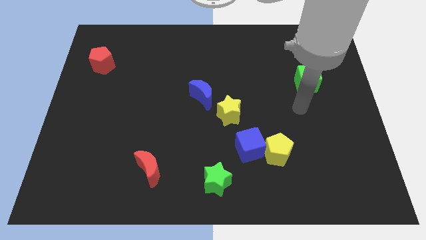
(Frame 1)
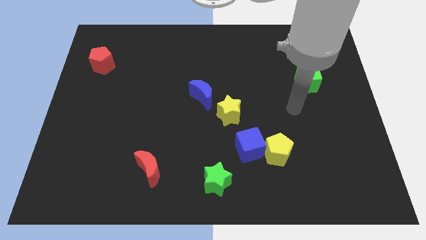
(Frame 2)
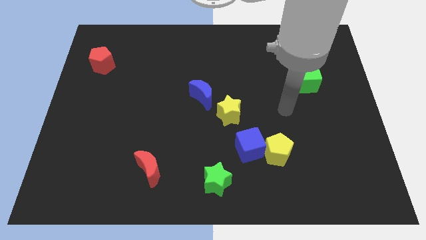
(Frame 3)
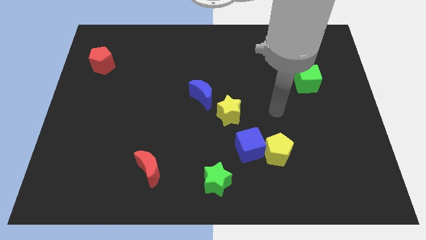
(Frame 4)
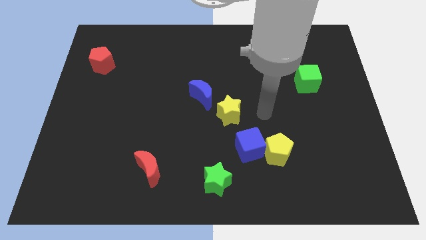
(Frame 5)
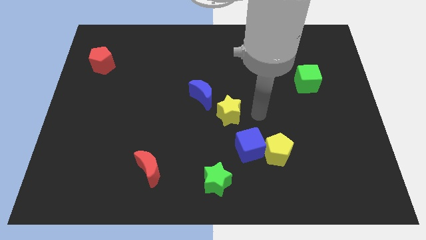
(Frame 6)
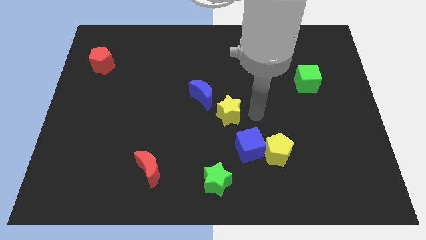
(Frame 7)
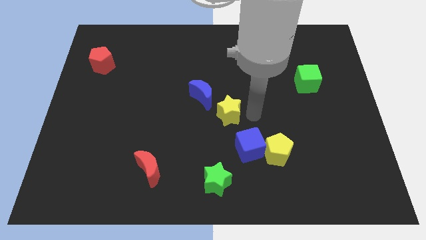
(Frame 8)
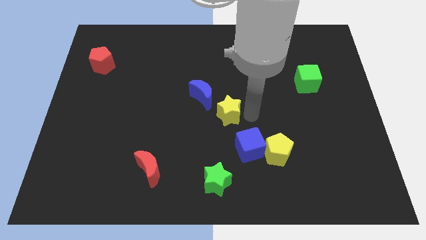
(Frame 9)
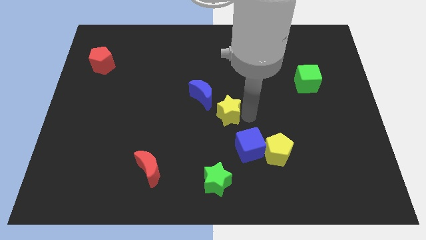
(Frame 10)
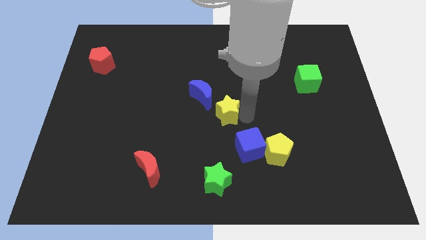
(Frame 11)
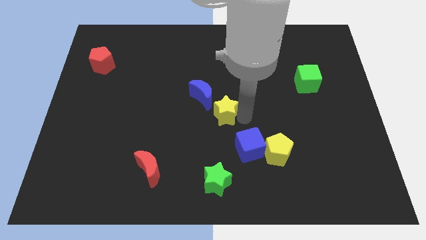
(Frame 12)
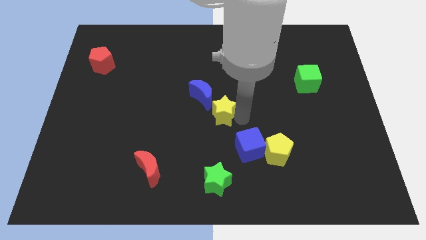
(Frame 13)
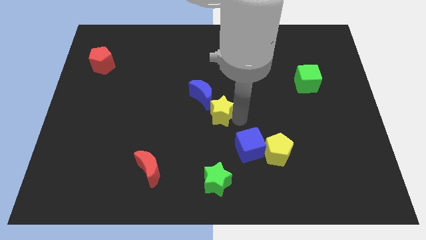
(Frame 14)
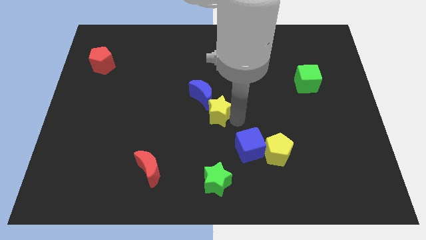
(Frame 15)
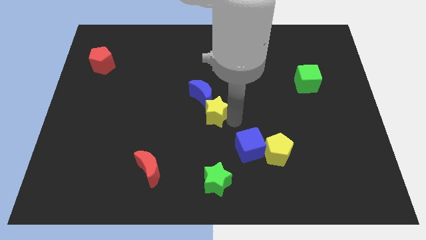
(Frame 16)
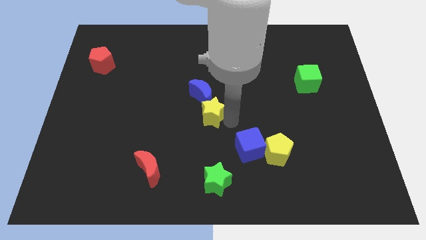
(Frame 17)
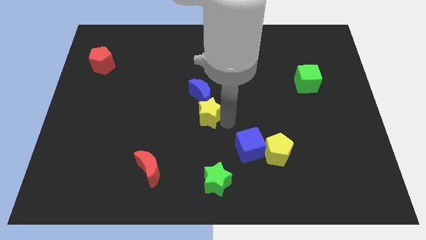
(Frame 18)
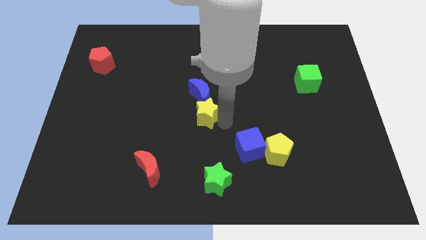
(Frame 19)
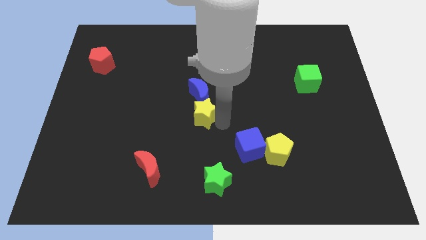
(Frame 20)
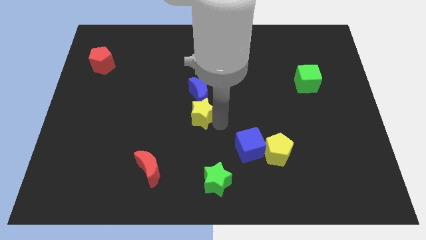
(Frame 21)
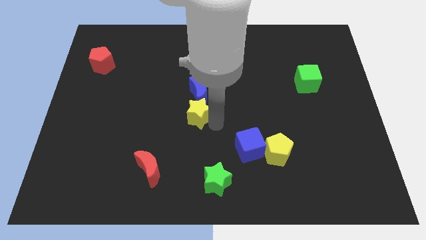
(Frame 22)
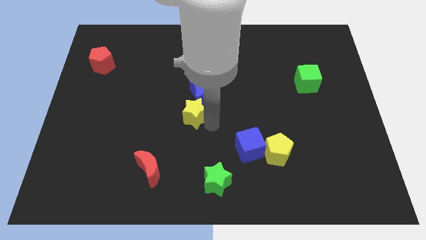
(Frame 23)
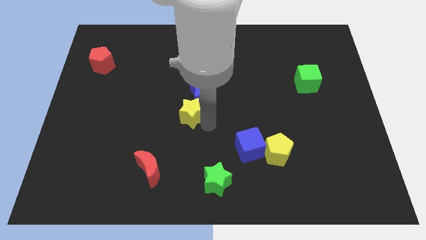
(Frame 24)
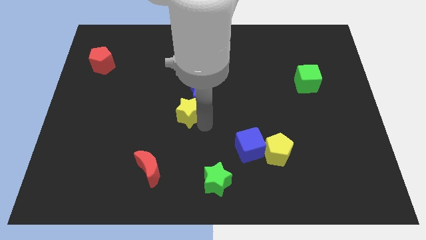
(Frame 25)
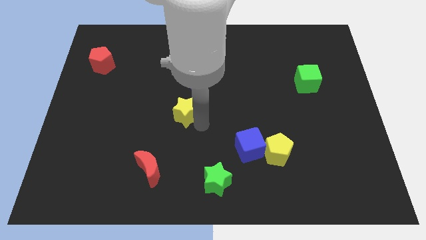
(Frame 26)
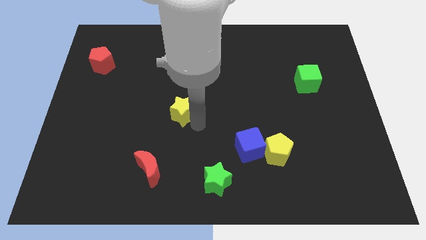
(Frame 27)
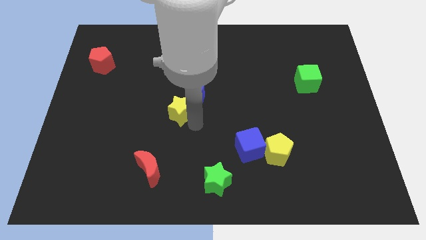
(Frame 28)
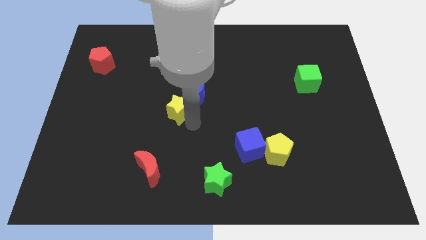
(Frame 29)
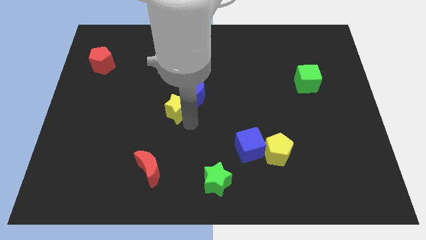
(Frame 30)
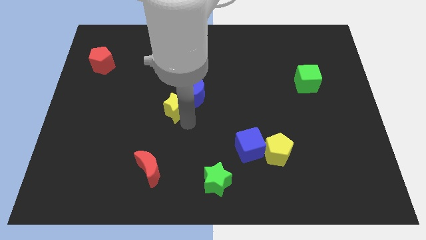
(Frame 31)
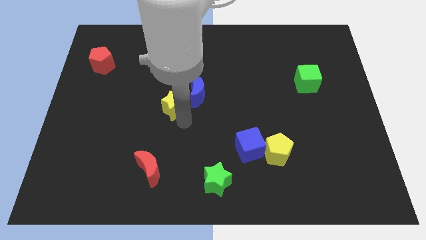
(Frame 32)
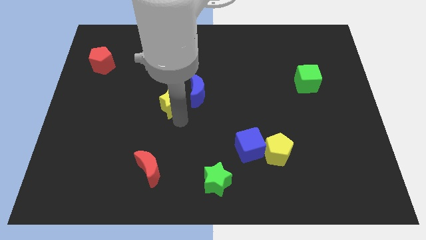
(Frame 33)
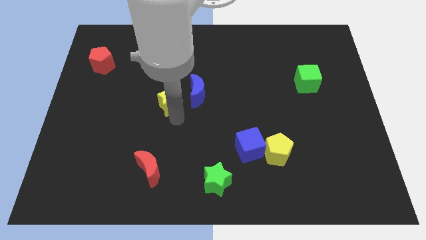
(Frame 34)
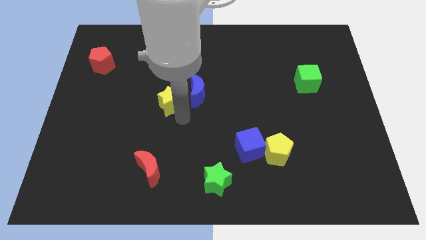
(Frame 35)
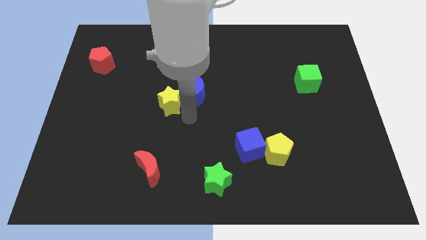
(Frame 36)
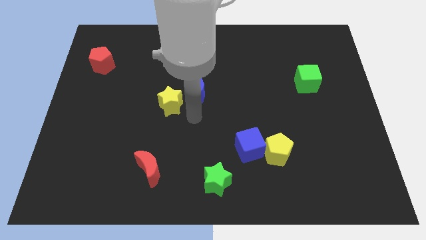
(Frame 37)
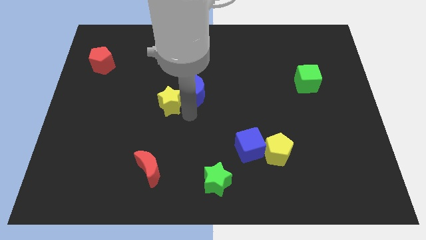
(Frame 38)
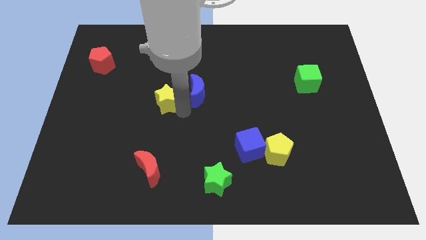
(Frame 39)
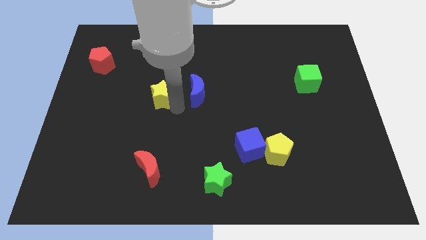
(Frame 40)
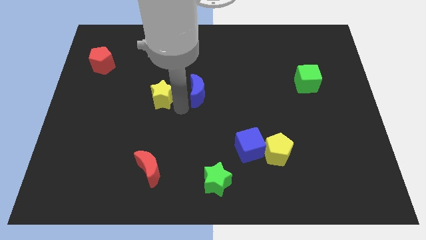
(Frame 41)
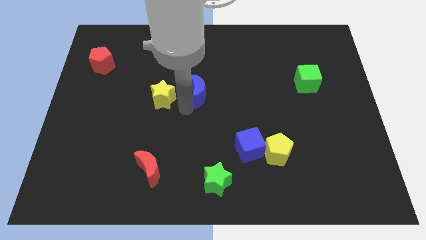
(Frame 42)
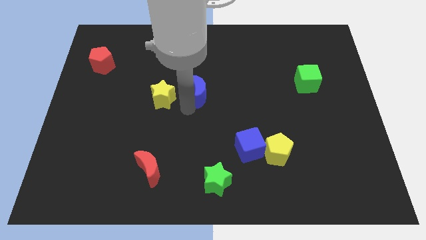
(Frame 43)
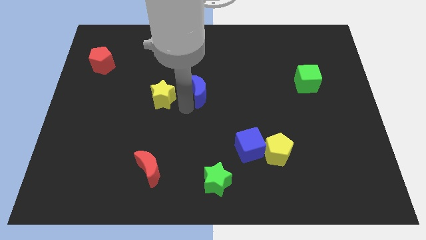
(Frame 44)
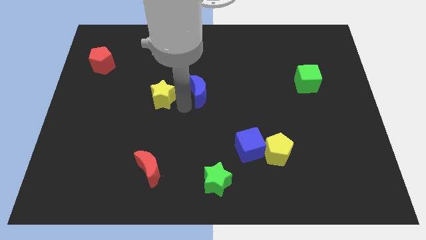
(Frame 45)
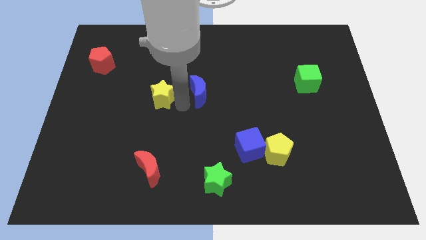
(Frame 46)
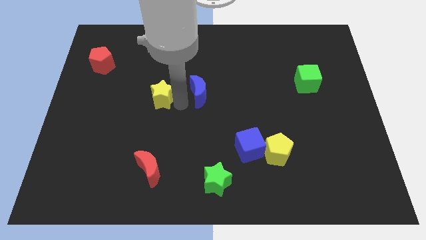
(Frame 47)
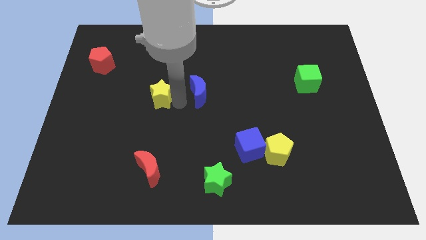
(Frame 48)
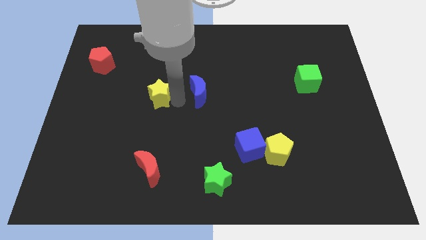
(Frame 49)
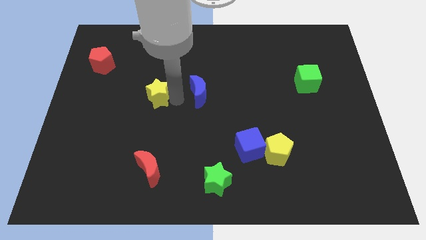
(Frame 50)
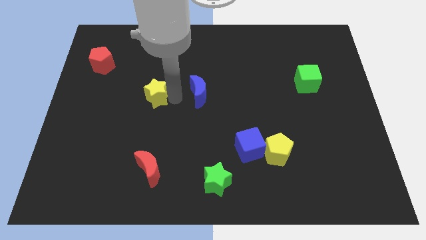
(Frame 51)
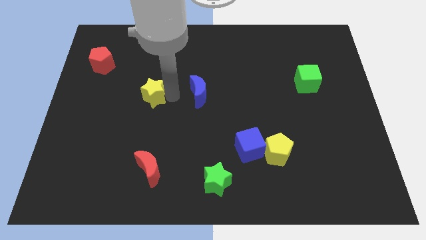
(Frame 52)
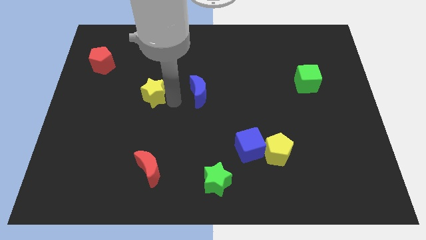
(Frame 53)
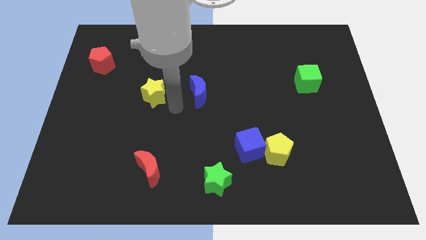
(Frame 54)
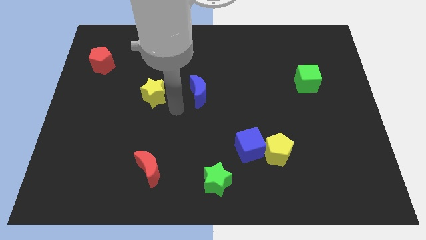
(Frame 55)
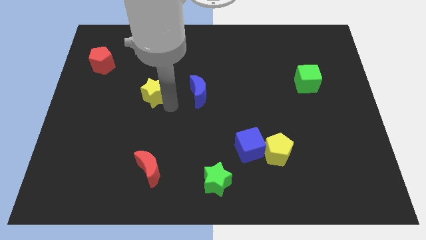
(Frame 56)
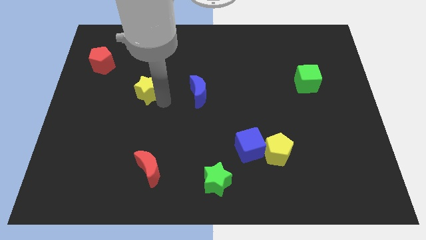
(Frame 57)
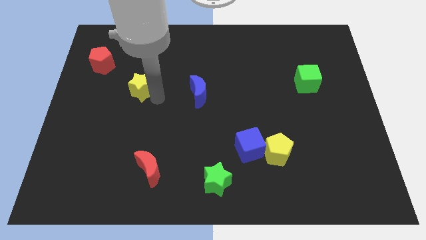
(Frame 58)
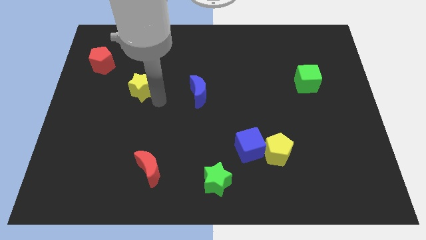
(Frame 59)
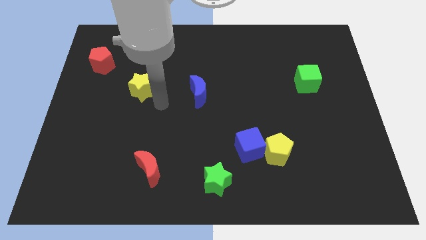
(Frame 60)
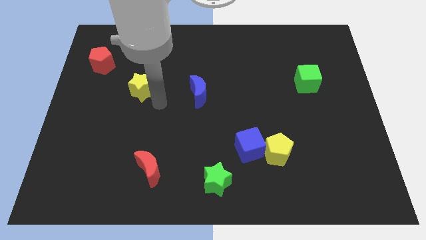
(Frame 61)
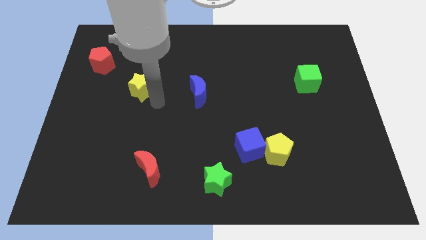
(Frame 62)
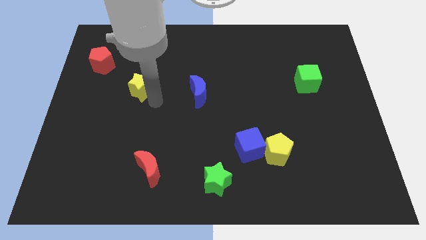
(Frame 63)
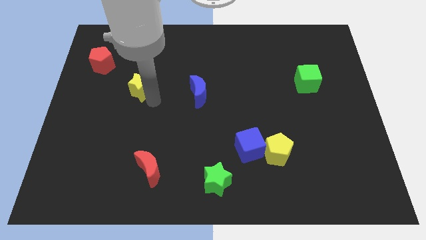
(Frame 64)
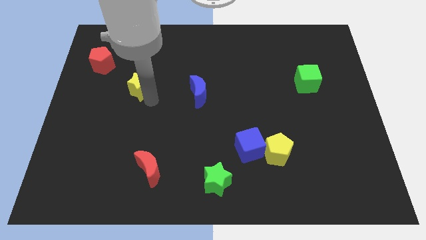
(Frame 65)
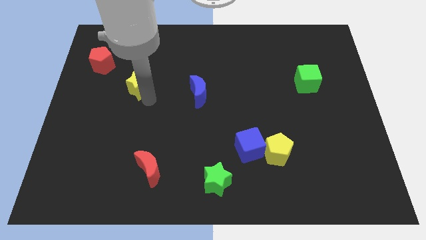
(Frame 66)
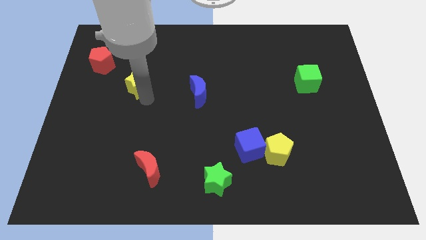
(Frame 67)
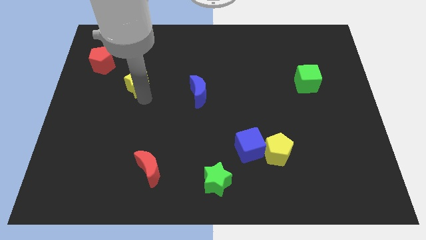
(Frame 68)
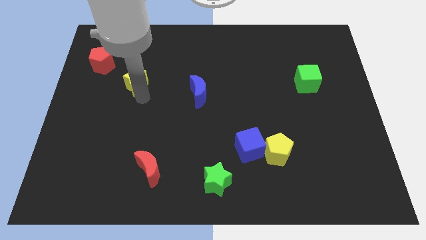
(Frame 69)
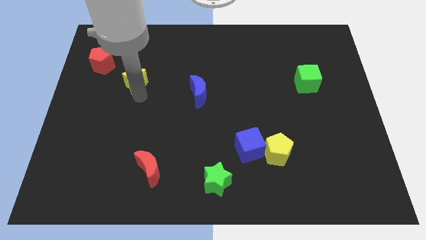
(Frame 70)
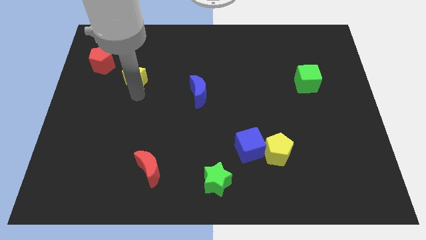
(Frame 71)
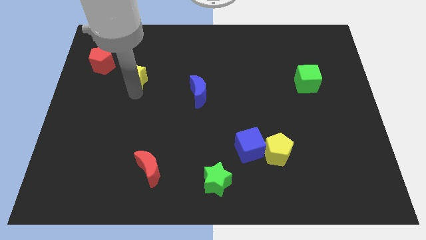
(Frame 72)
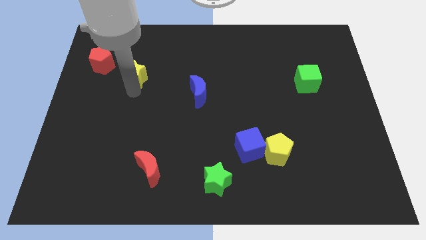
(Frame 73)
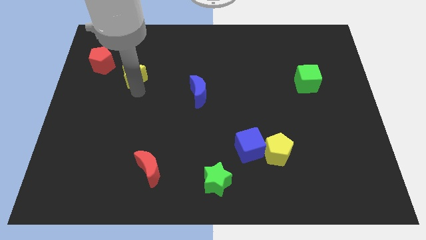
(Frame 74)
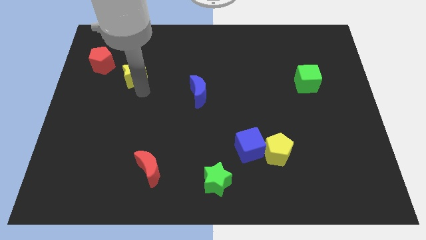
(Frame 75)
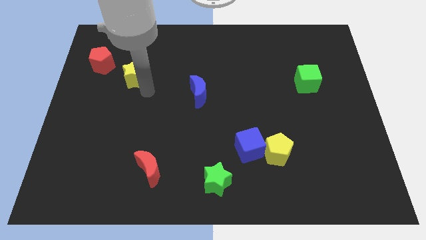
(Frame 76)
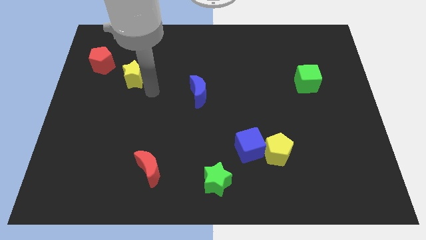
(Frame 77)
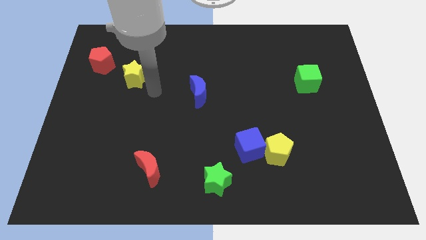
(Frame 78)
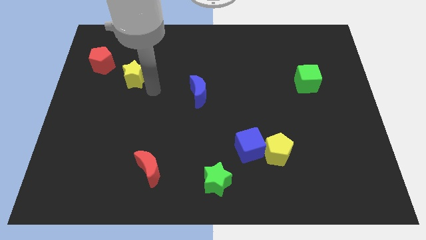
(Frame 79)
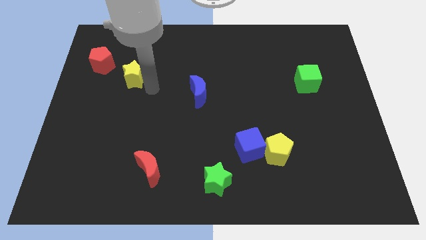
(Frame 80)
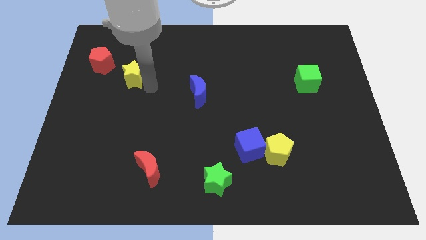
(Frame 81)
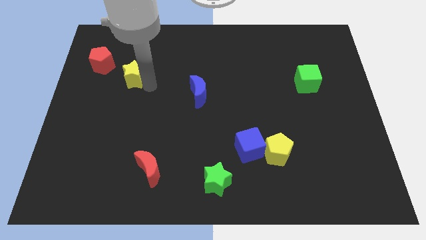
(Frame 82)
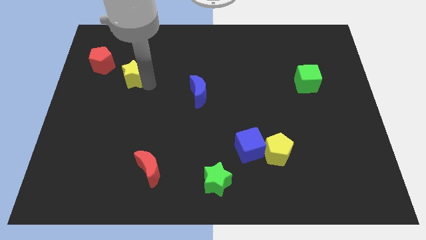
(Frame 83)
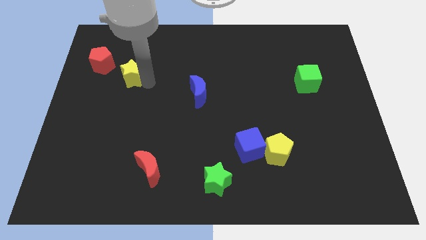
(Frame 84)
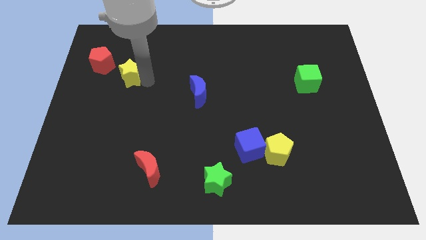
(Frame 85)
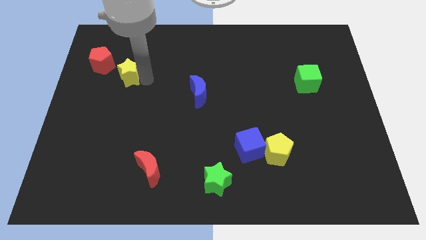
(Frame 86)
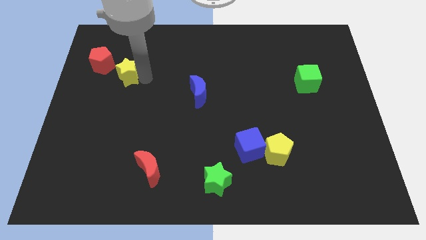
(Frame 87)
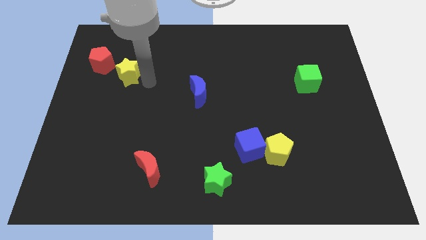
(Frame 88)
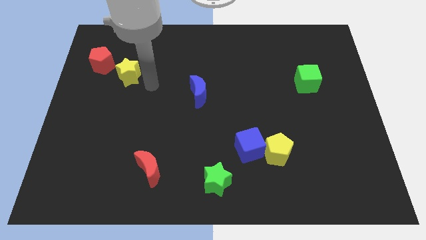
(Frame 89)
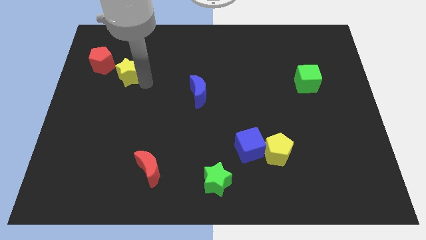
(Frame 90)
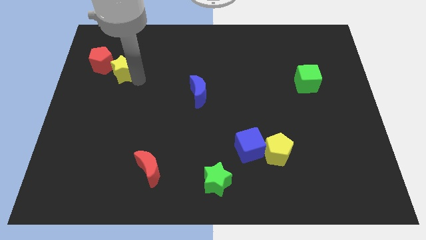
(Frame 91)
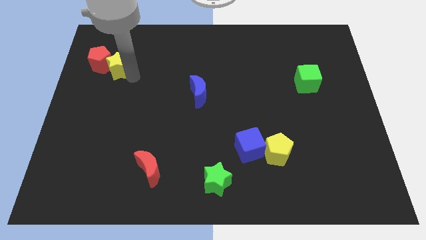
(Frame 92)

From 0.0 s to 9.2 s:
push the yellow star close to the red pentagon
